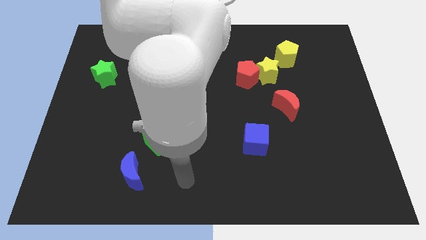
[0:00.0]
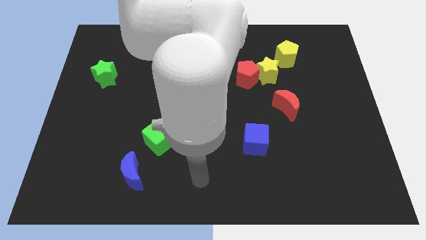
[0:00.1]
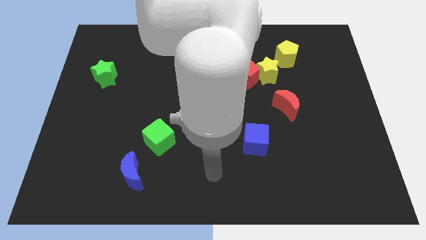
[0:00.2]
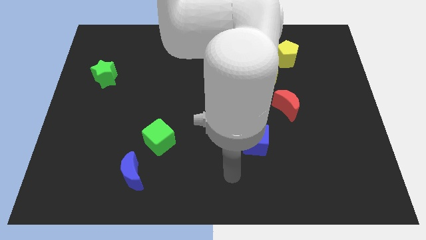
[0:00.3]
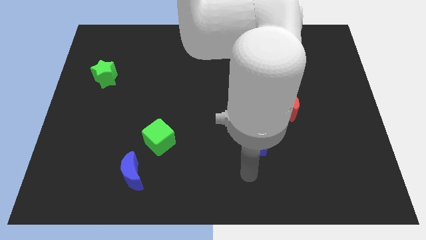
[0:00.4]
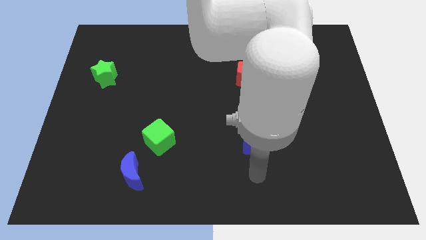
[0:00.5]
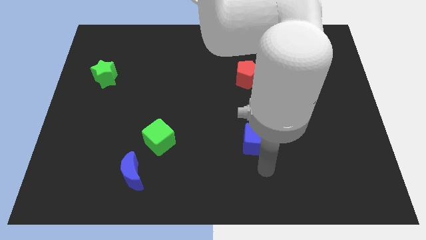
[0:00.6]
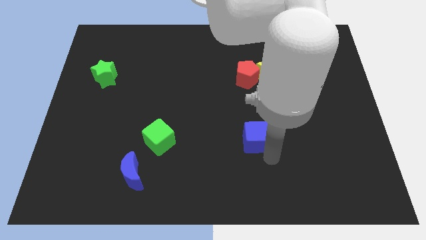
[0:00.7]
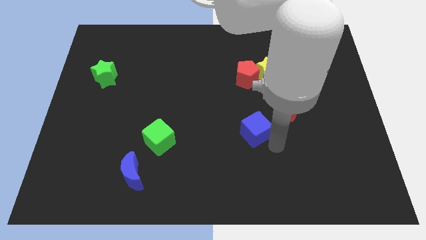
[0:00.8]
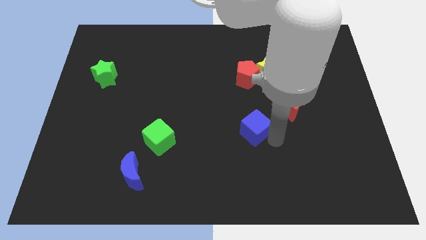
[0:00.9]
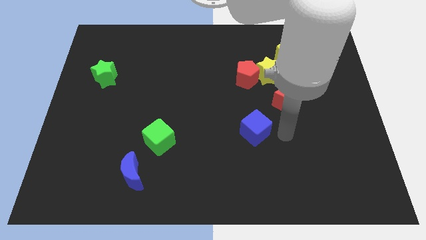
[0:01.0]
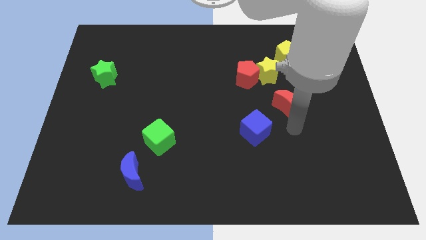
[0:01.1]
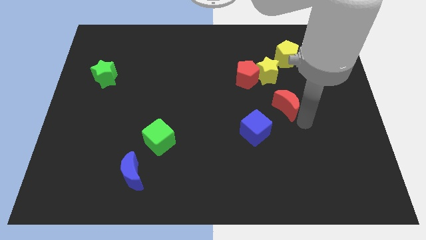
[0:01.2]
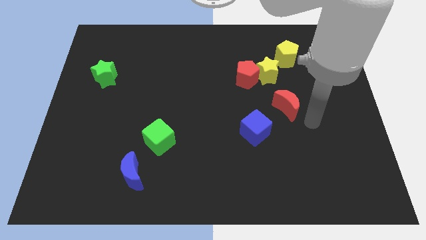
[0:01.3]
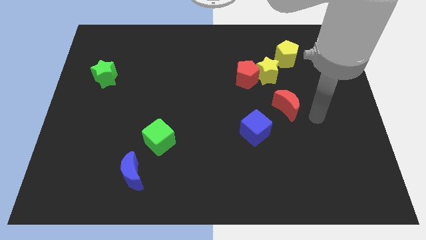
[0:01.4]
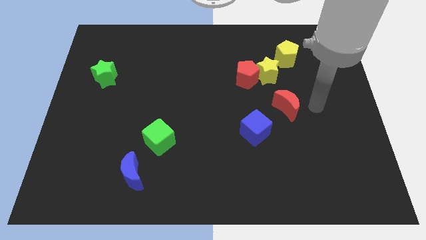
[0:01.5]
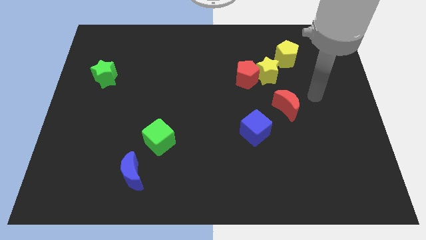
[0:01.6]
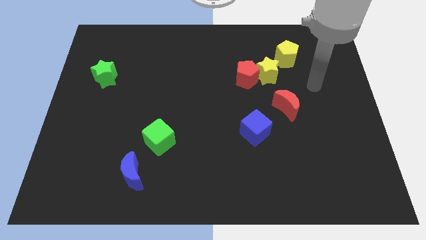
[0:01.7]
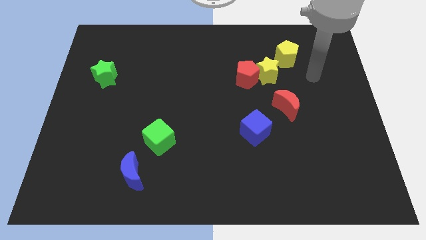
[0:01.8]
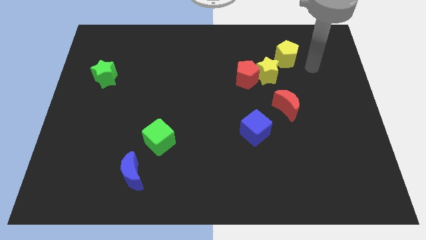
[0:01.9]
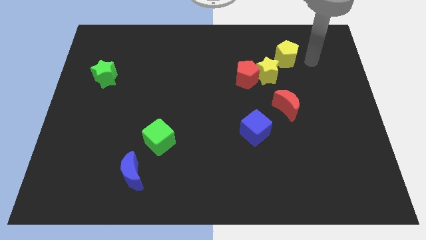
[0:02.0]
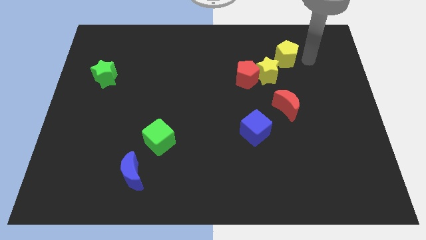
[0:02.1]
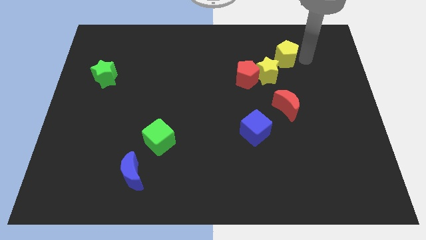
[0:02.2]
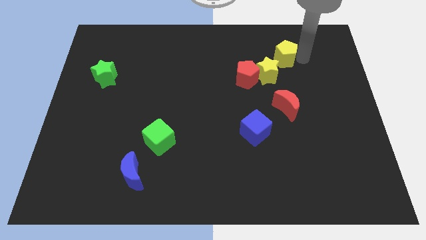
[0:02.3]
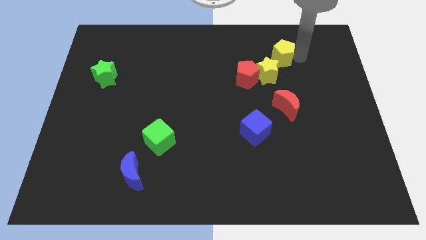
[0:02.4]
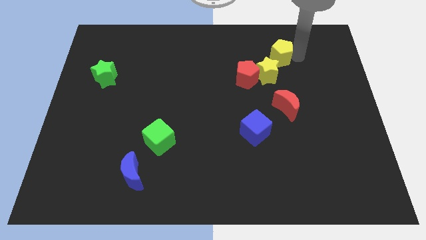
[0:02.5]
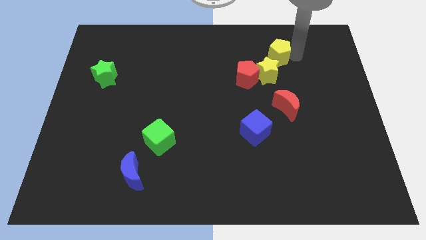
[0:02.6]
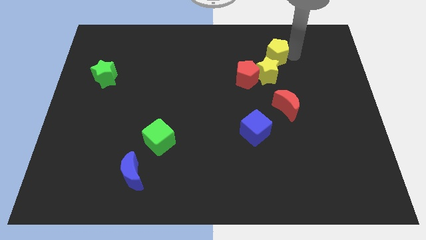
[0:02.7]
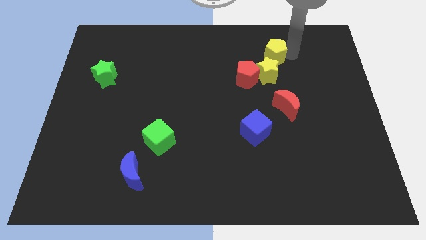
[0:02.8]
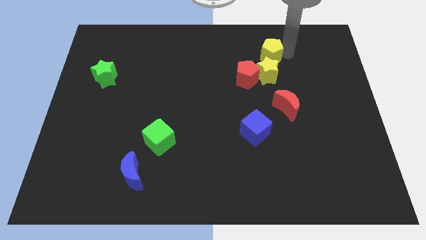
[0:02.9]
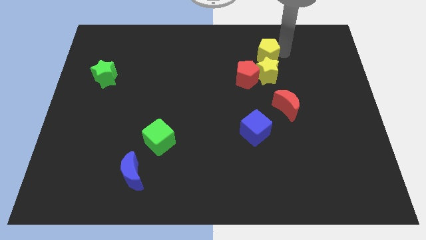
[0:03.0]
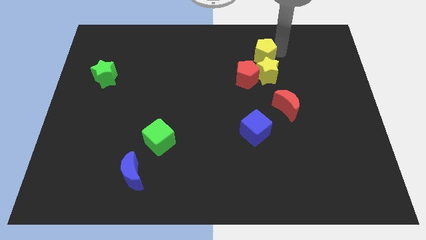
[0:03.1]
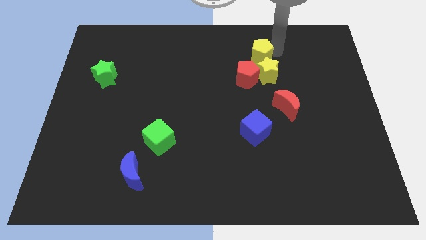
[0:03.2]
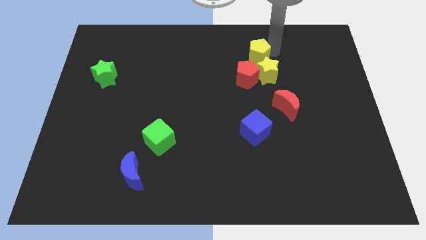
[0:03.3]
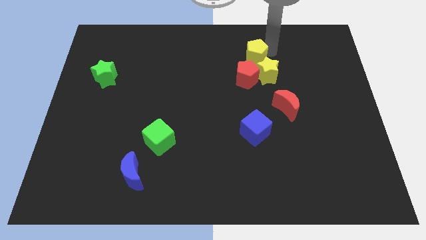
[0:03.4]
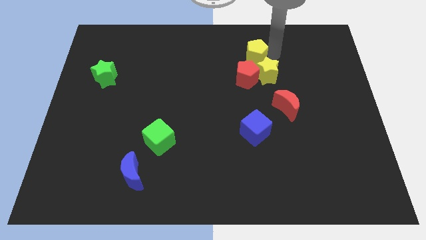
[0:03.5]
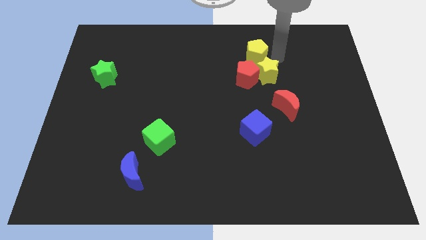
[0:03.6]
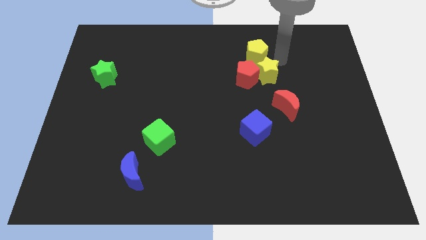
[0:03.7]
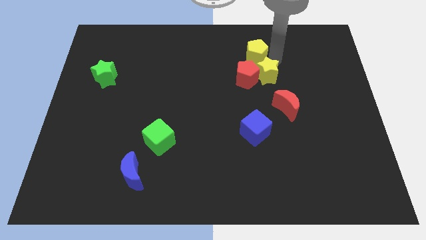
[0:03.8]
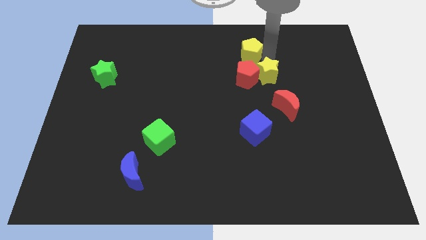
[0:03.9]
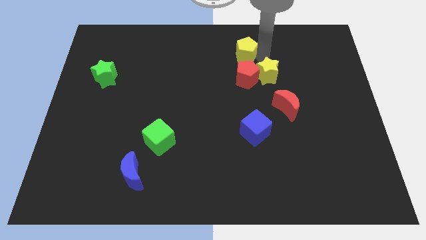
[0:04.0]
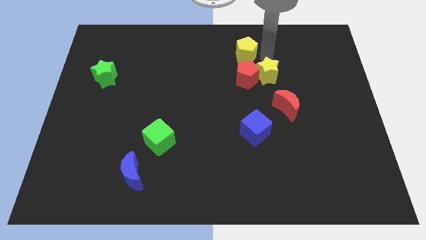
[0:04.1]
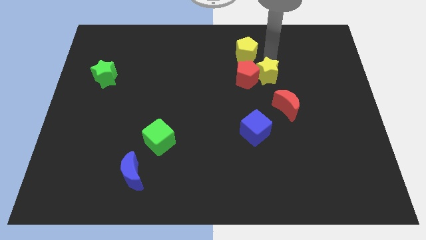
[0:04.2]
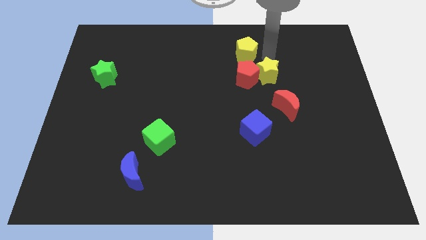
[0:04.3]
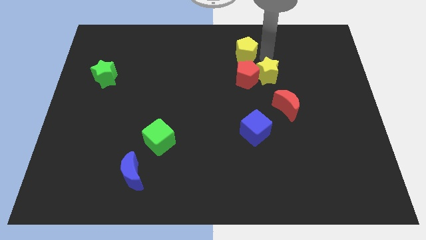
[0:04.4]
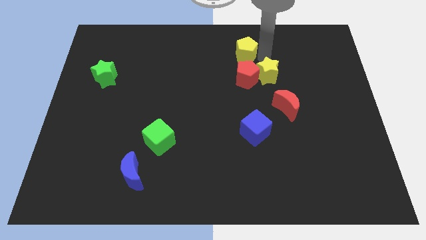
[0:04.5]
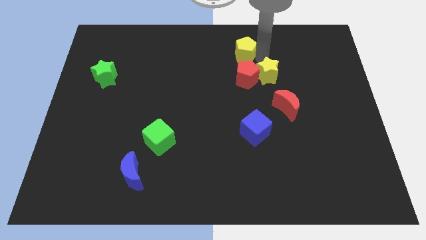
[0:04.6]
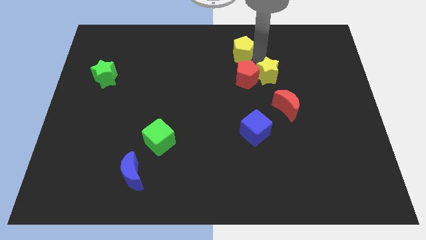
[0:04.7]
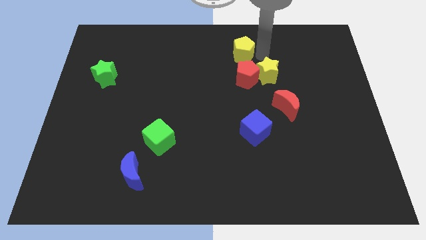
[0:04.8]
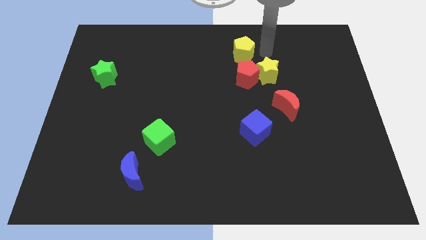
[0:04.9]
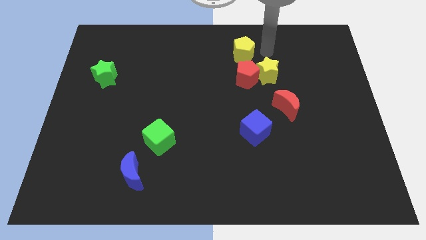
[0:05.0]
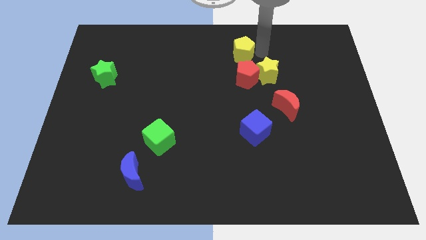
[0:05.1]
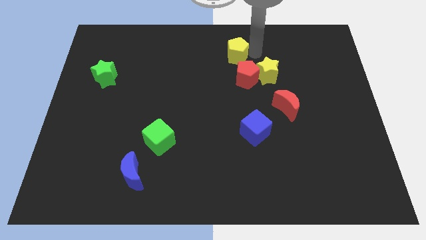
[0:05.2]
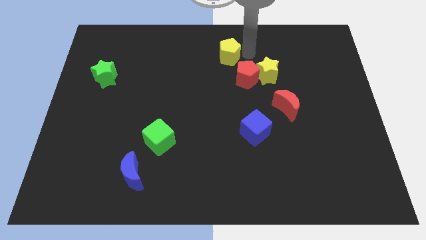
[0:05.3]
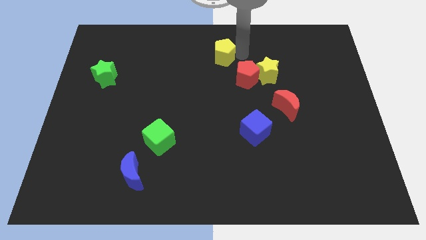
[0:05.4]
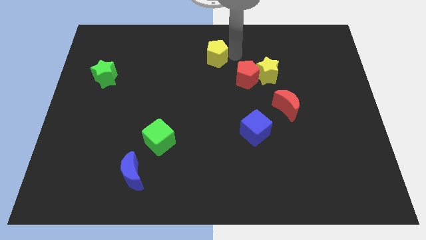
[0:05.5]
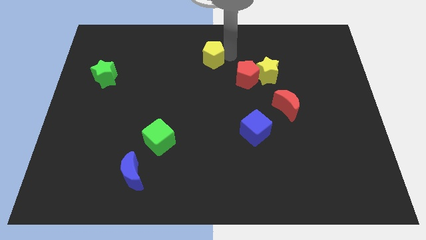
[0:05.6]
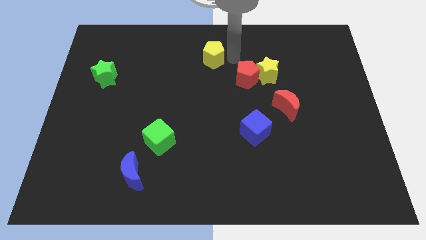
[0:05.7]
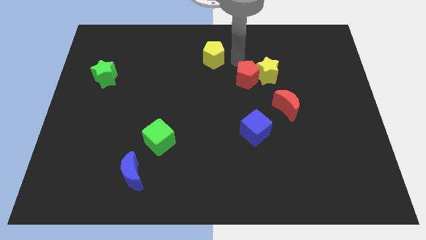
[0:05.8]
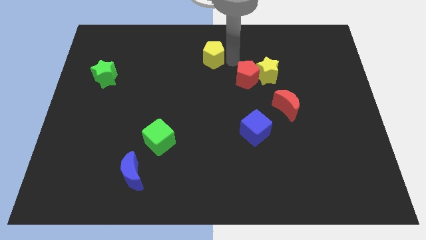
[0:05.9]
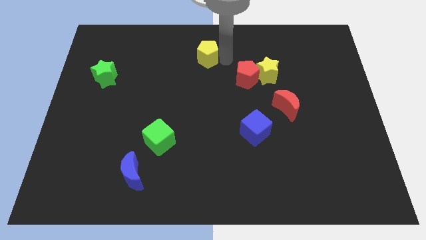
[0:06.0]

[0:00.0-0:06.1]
push the yellow pentagon left

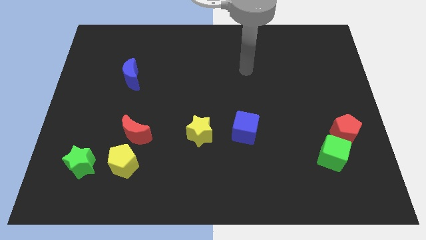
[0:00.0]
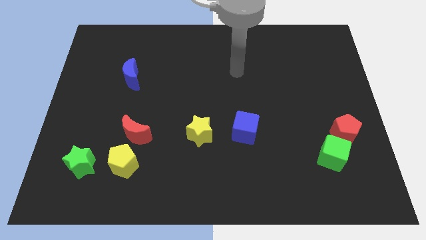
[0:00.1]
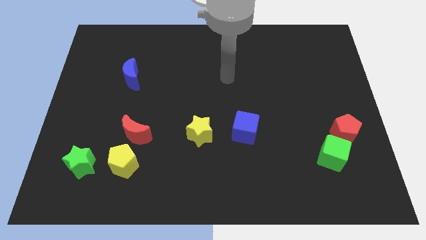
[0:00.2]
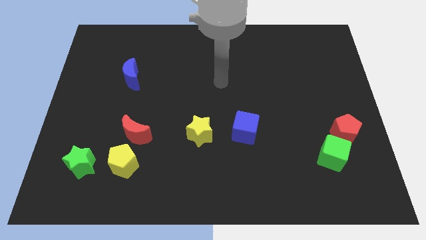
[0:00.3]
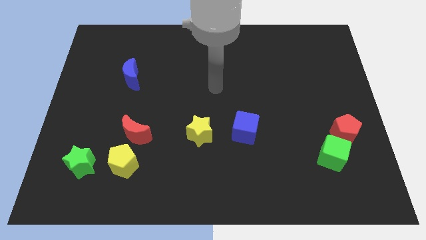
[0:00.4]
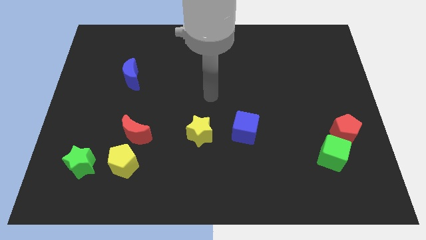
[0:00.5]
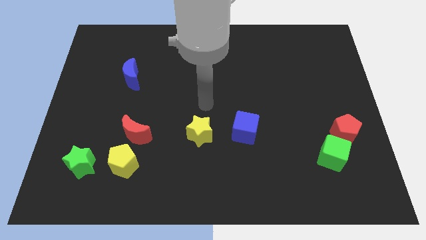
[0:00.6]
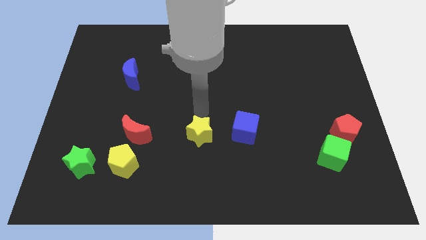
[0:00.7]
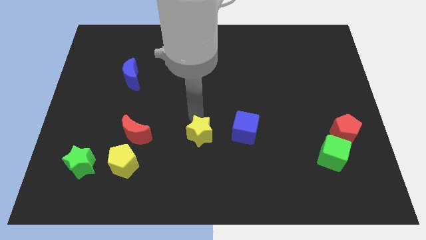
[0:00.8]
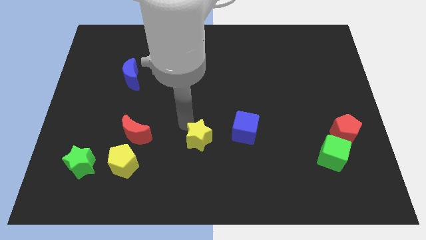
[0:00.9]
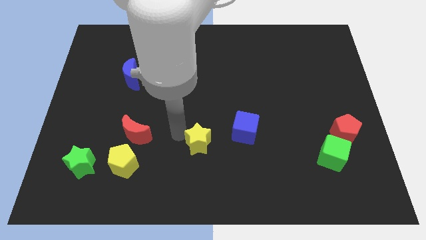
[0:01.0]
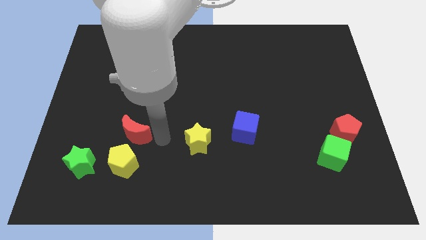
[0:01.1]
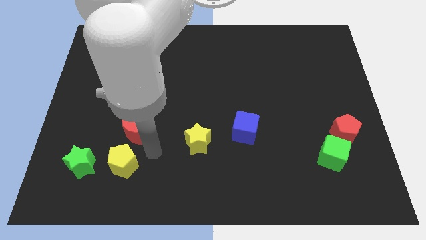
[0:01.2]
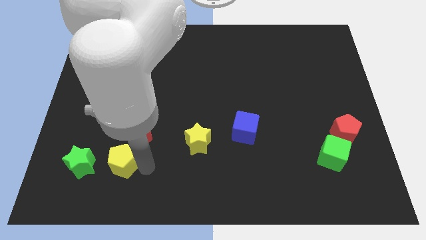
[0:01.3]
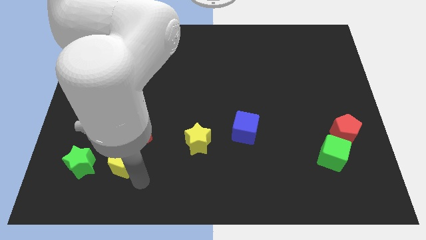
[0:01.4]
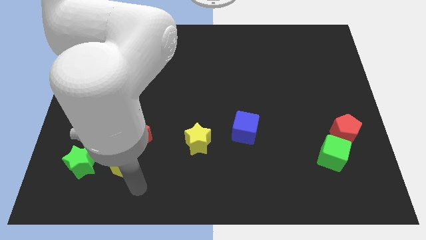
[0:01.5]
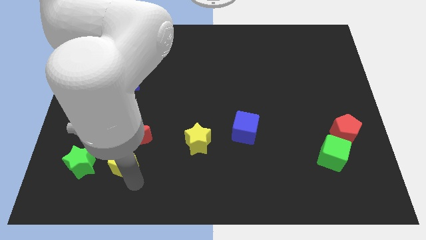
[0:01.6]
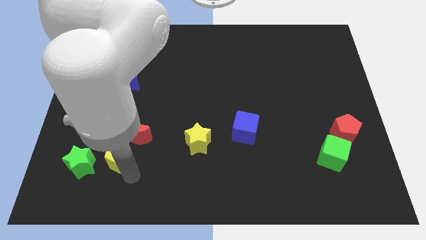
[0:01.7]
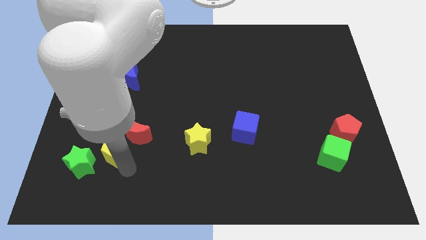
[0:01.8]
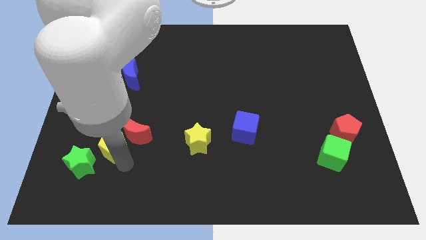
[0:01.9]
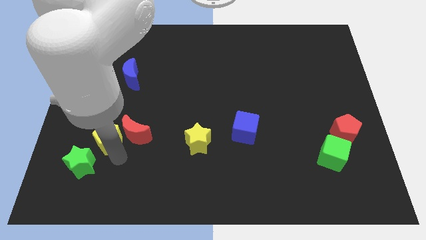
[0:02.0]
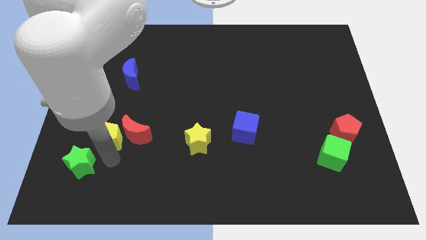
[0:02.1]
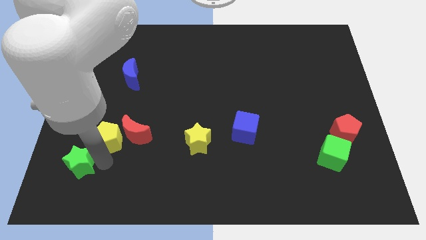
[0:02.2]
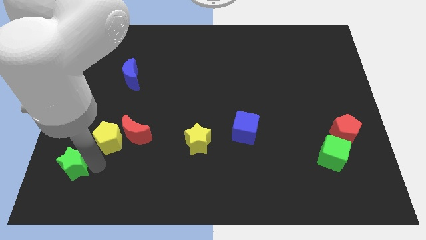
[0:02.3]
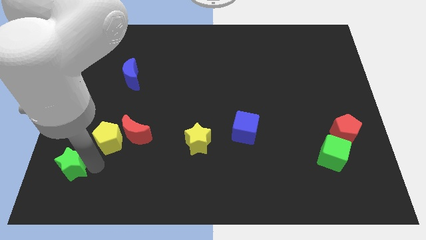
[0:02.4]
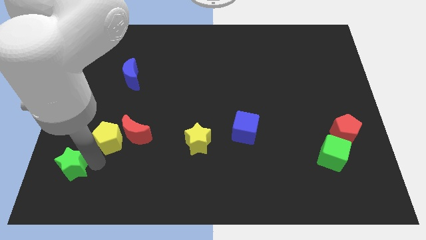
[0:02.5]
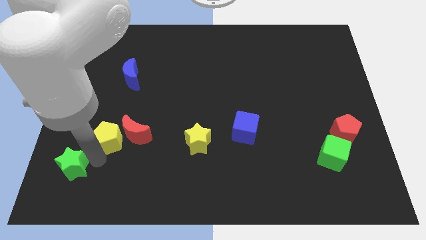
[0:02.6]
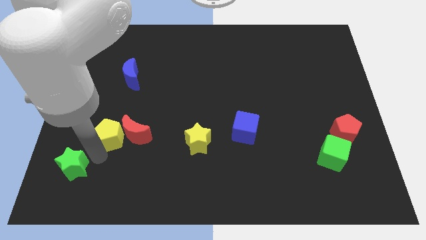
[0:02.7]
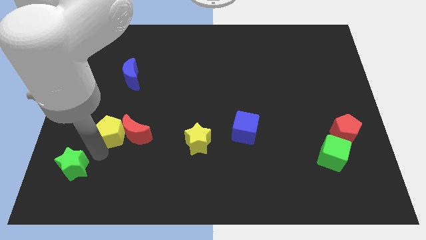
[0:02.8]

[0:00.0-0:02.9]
slightly move the yellow pentagon upwards
